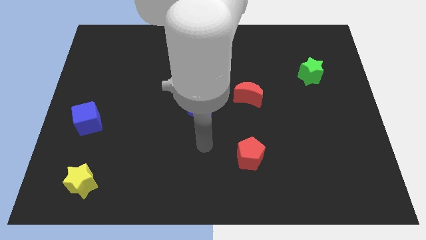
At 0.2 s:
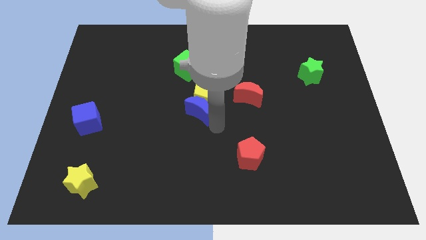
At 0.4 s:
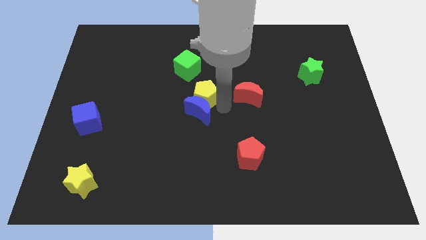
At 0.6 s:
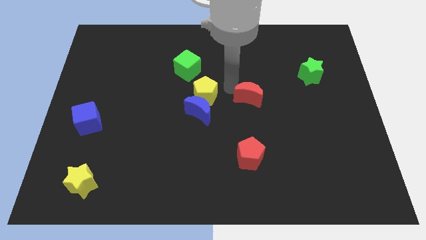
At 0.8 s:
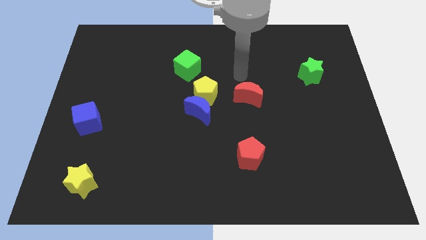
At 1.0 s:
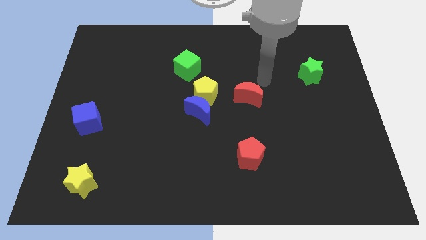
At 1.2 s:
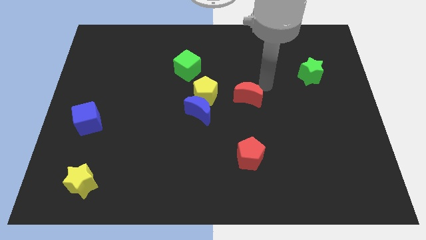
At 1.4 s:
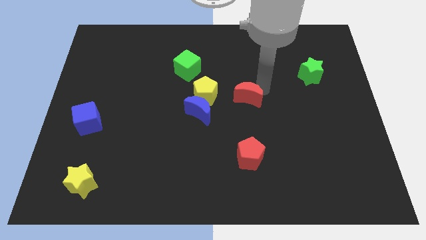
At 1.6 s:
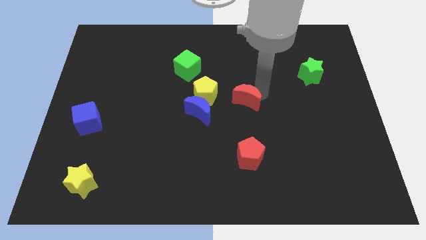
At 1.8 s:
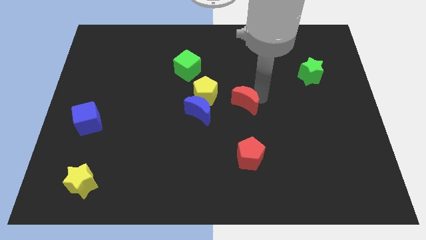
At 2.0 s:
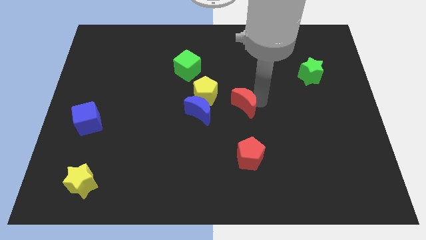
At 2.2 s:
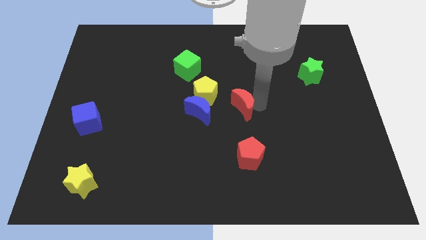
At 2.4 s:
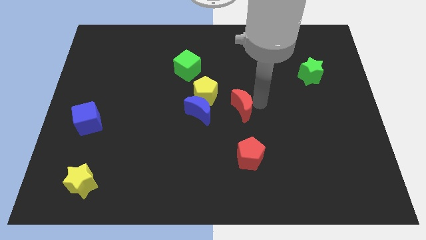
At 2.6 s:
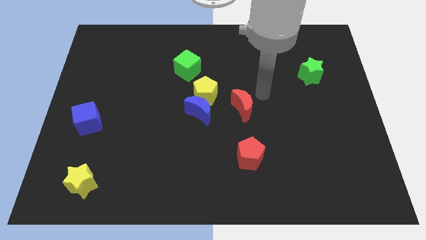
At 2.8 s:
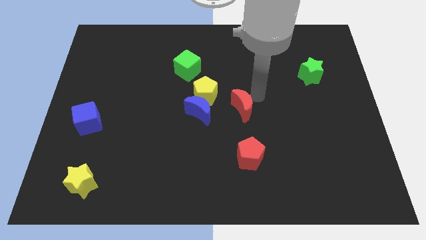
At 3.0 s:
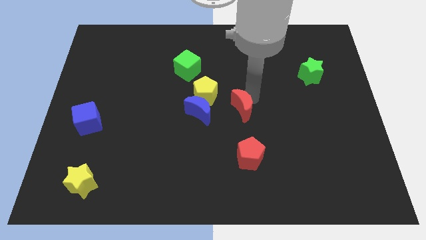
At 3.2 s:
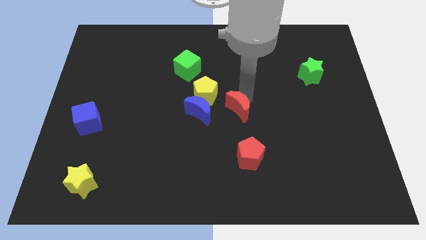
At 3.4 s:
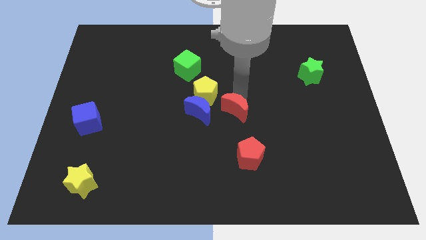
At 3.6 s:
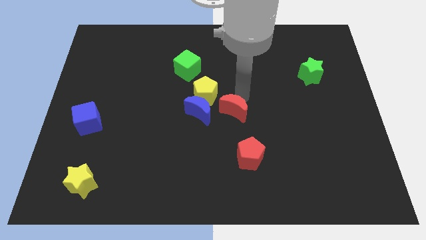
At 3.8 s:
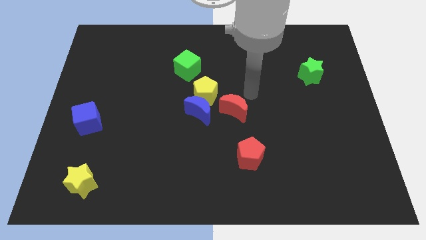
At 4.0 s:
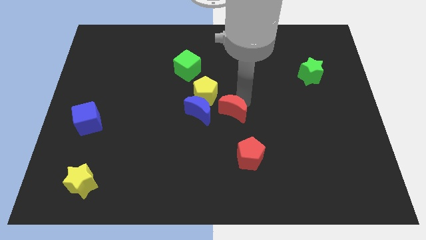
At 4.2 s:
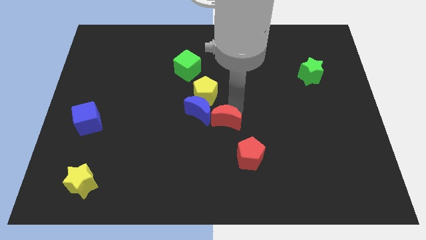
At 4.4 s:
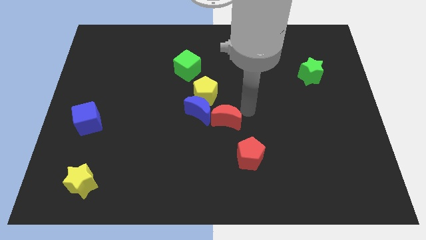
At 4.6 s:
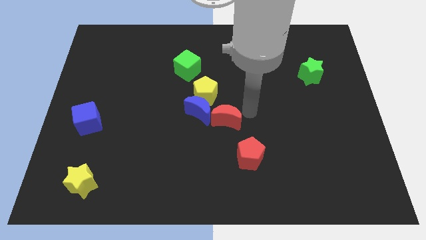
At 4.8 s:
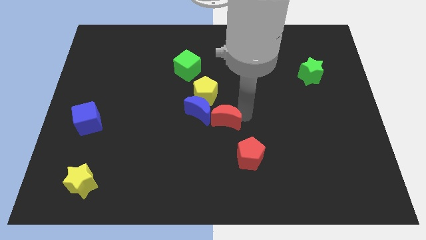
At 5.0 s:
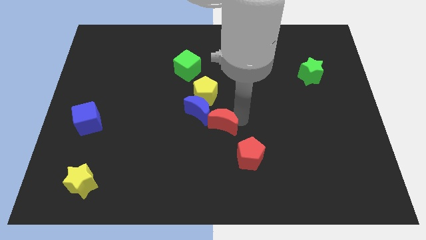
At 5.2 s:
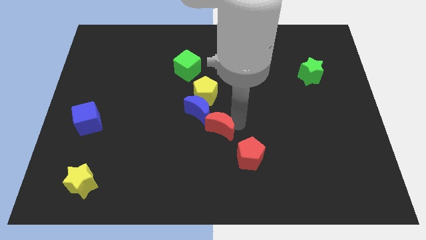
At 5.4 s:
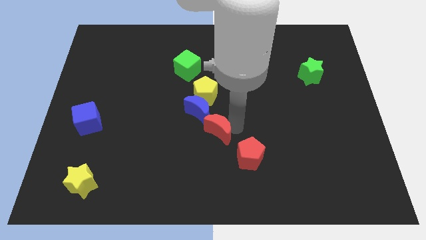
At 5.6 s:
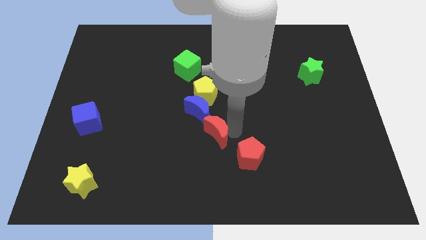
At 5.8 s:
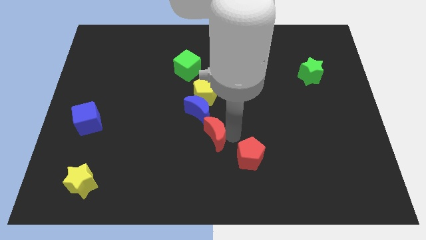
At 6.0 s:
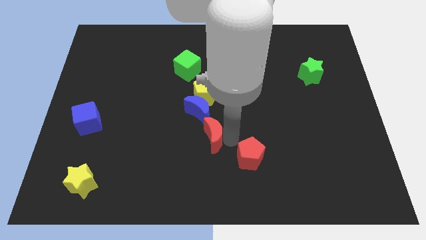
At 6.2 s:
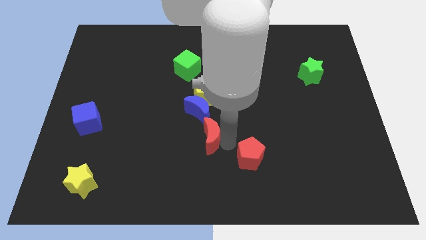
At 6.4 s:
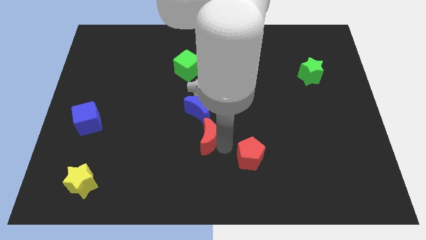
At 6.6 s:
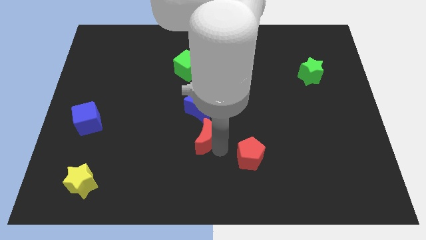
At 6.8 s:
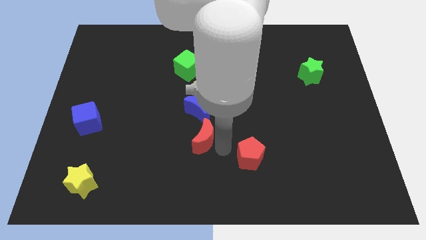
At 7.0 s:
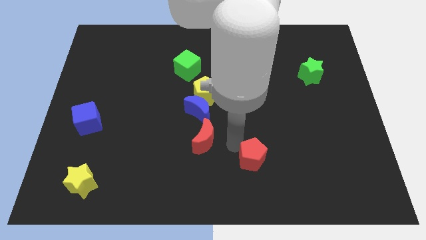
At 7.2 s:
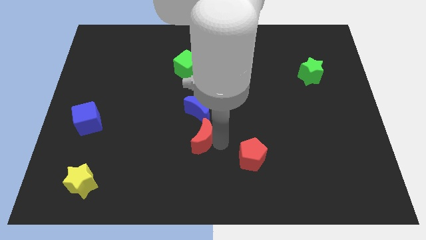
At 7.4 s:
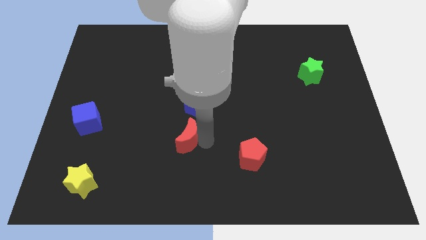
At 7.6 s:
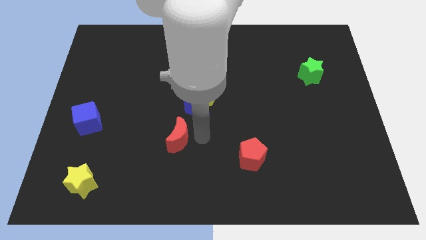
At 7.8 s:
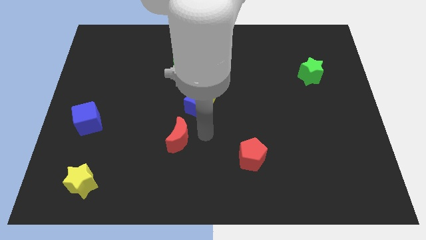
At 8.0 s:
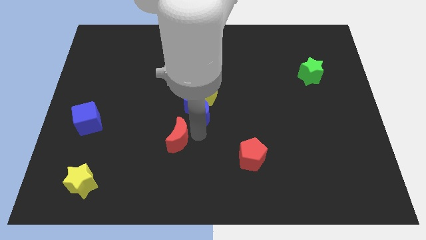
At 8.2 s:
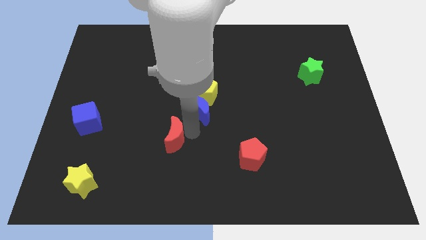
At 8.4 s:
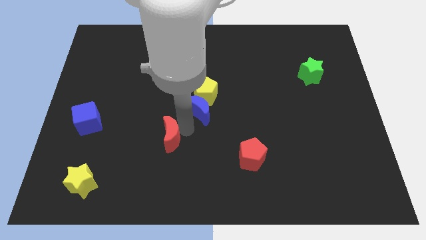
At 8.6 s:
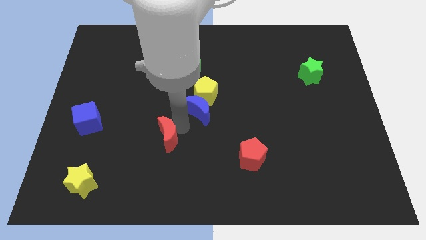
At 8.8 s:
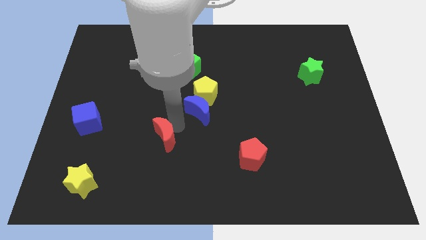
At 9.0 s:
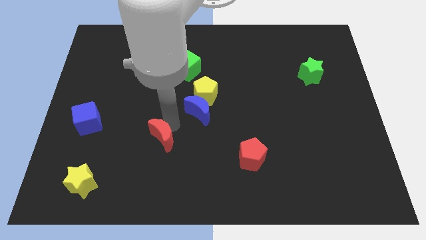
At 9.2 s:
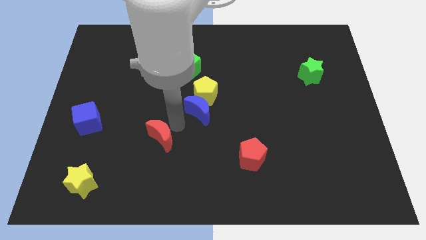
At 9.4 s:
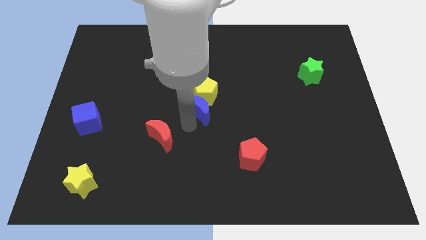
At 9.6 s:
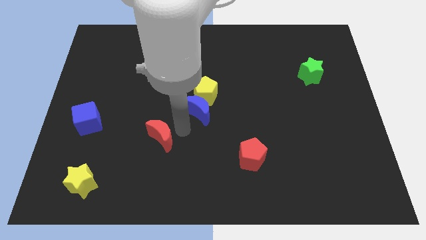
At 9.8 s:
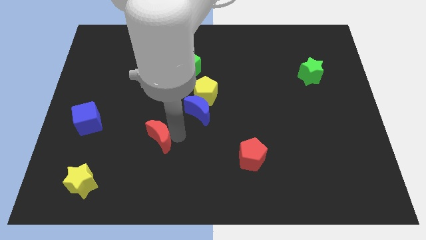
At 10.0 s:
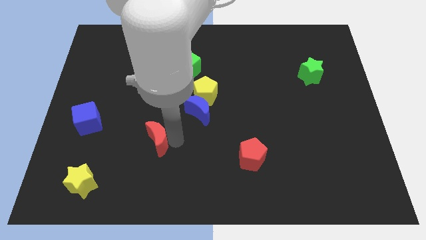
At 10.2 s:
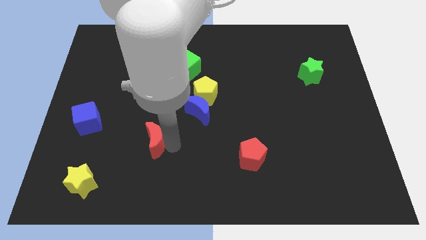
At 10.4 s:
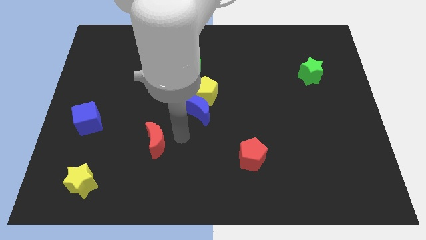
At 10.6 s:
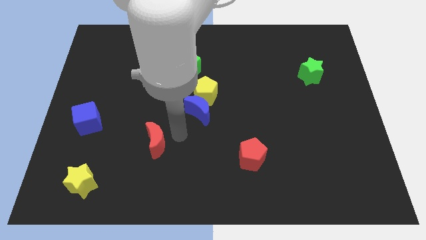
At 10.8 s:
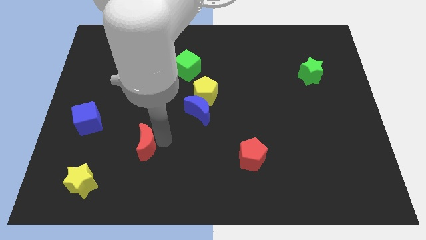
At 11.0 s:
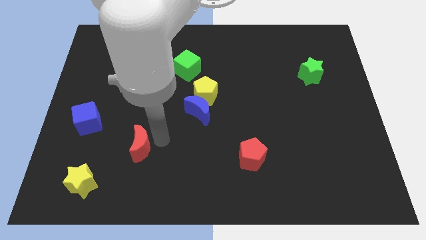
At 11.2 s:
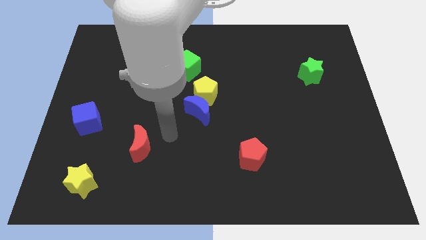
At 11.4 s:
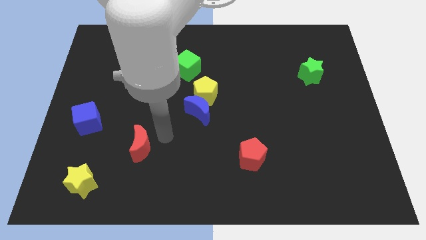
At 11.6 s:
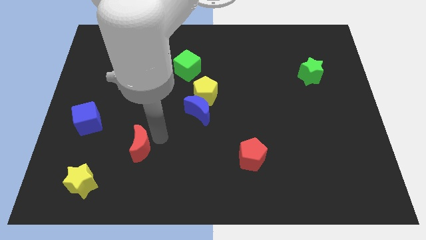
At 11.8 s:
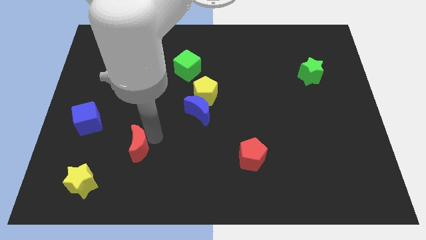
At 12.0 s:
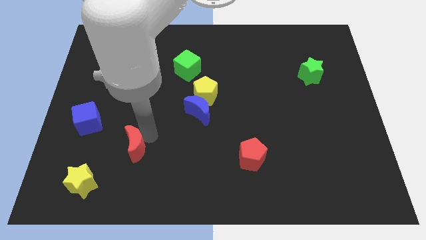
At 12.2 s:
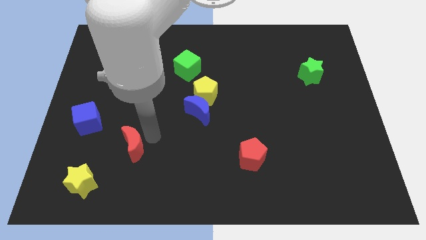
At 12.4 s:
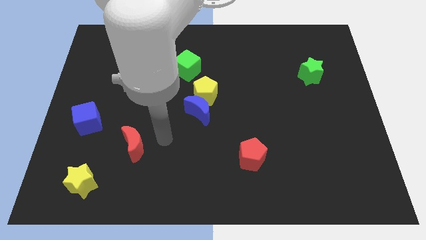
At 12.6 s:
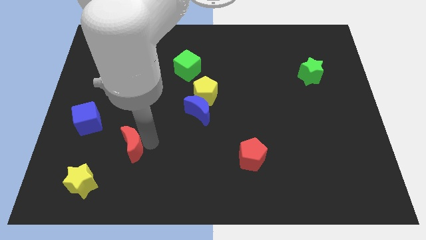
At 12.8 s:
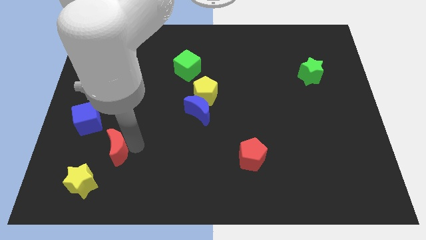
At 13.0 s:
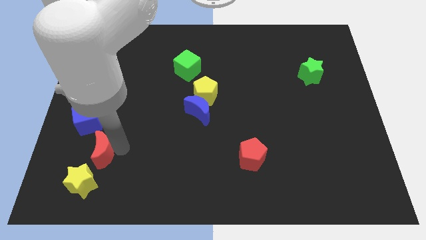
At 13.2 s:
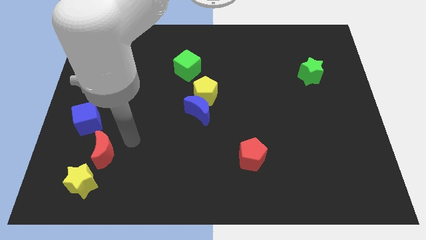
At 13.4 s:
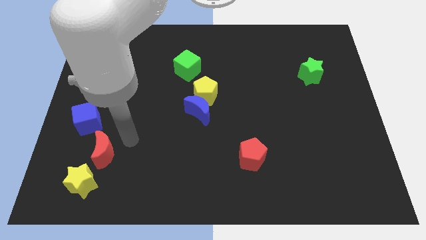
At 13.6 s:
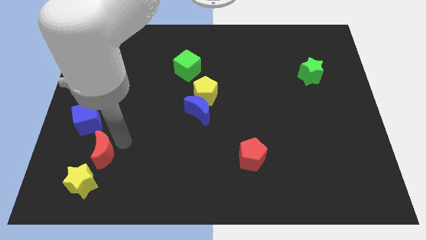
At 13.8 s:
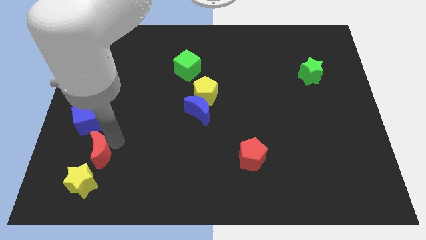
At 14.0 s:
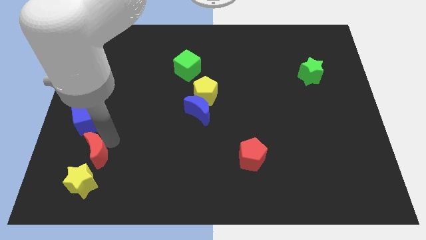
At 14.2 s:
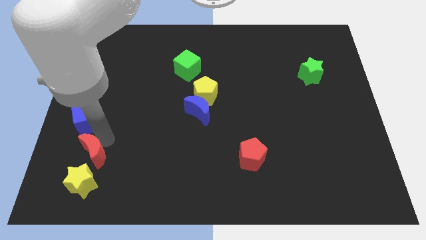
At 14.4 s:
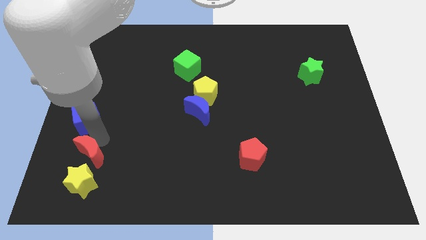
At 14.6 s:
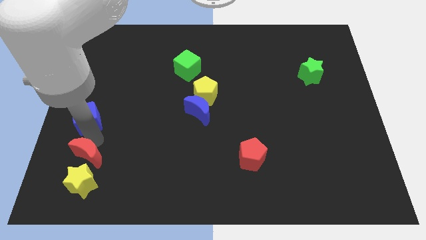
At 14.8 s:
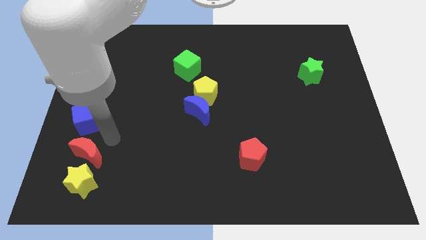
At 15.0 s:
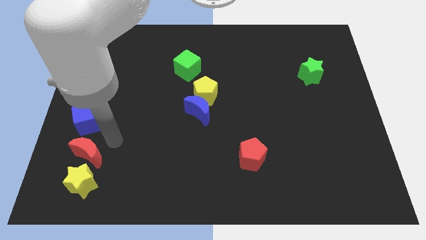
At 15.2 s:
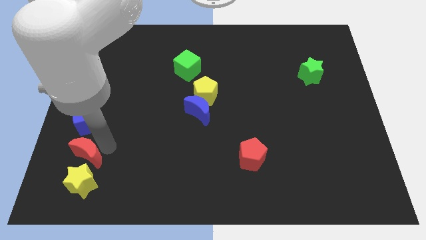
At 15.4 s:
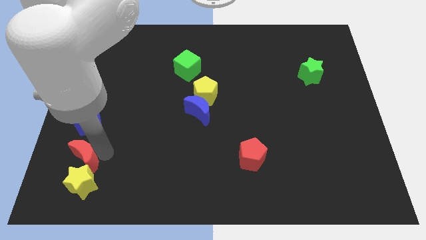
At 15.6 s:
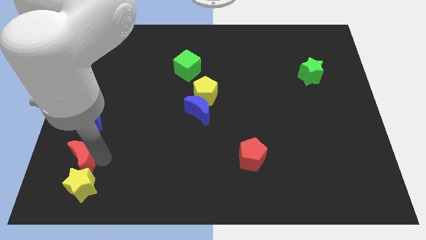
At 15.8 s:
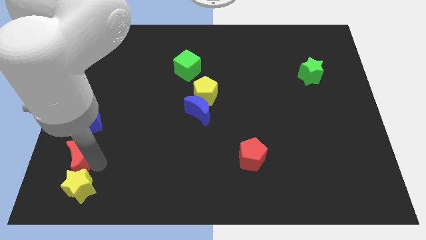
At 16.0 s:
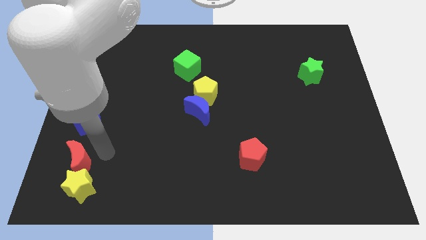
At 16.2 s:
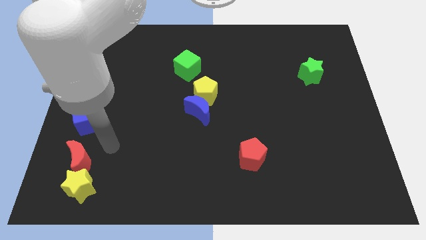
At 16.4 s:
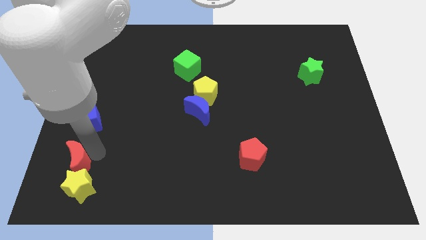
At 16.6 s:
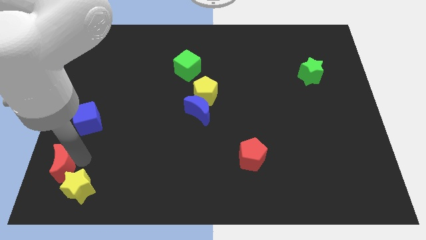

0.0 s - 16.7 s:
push the red moon to the bottom left
